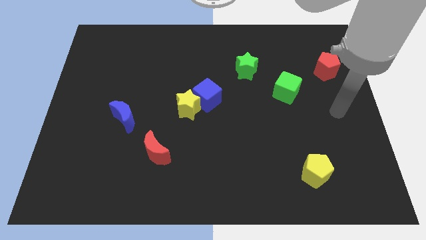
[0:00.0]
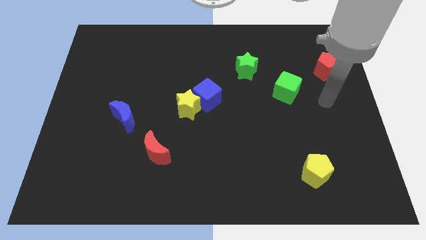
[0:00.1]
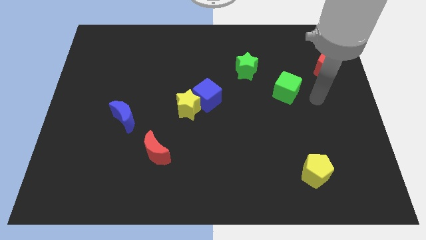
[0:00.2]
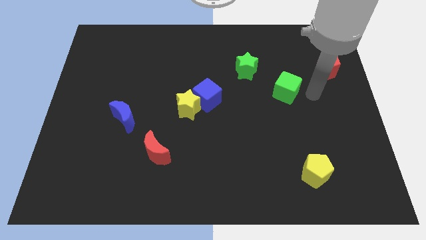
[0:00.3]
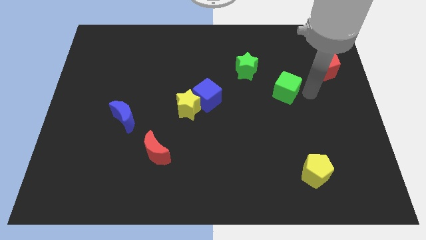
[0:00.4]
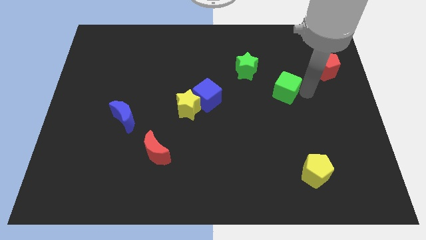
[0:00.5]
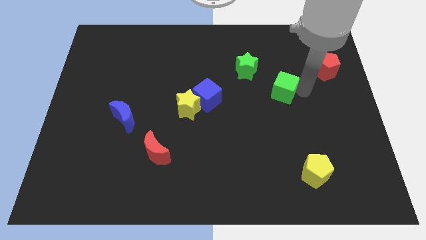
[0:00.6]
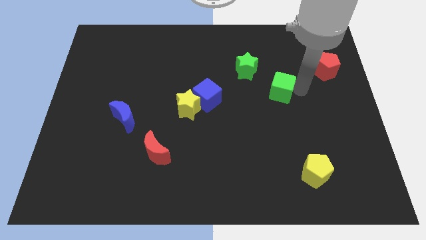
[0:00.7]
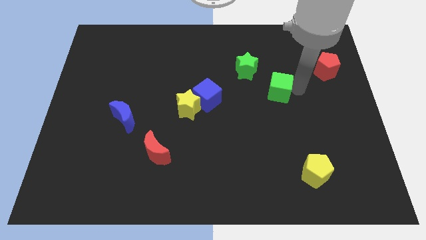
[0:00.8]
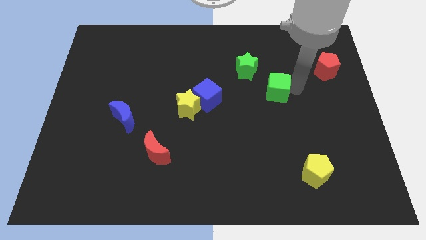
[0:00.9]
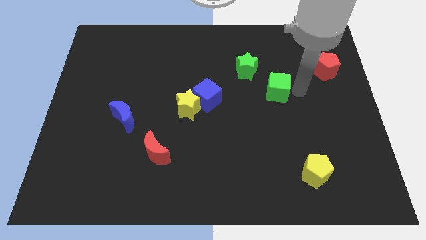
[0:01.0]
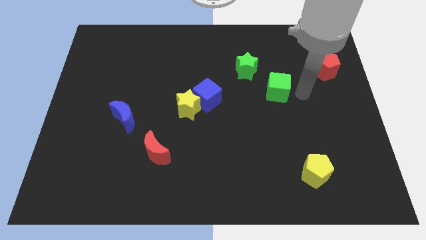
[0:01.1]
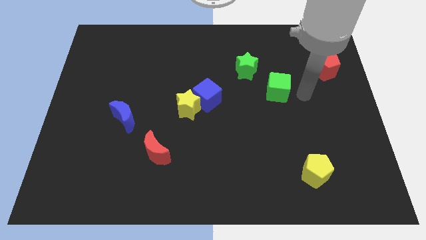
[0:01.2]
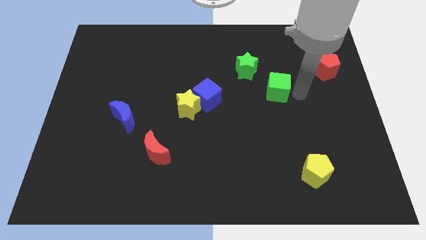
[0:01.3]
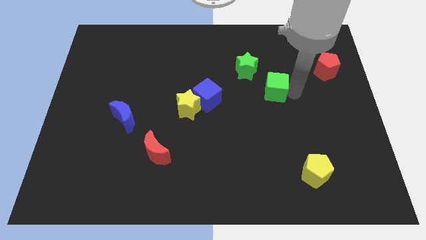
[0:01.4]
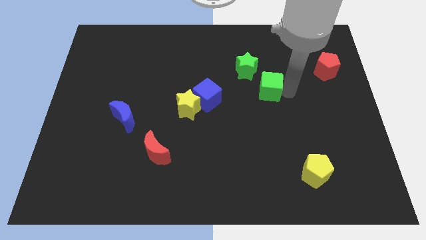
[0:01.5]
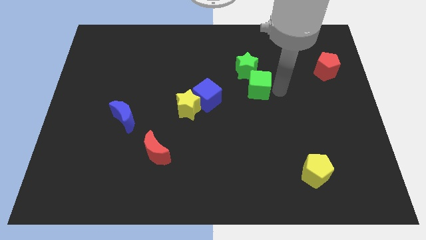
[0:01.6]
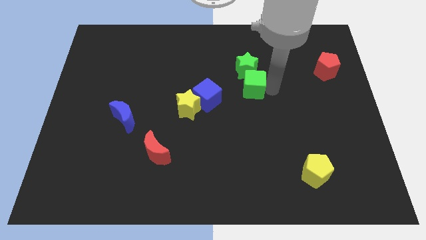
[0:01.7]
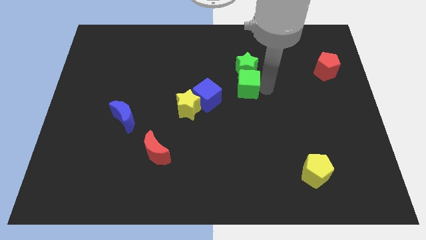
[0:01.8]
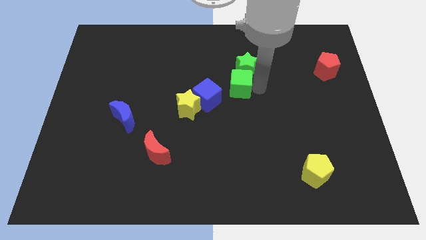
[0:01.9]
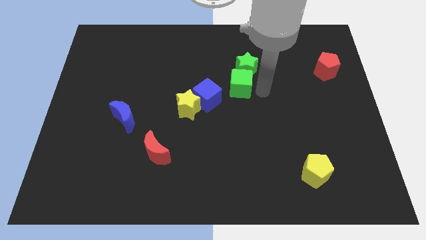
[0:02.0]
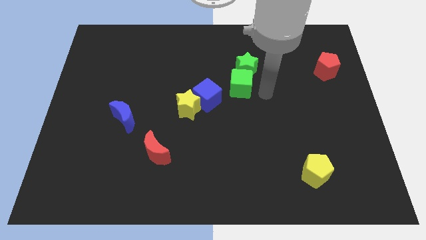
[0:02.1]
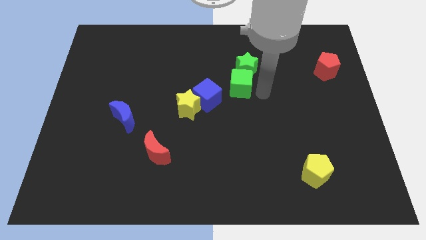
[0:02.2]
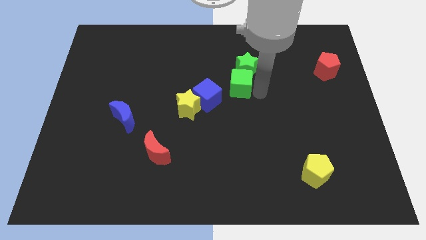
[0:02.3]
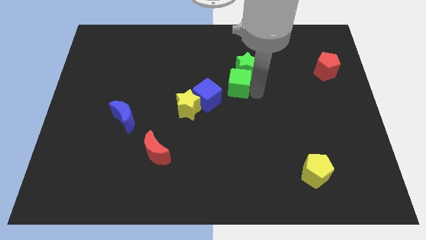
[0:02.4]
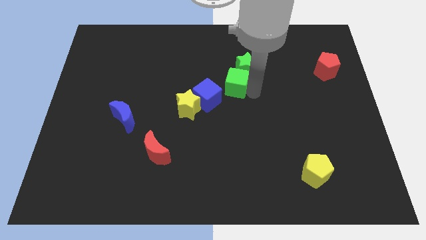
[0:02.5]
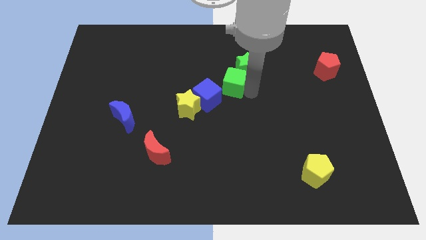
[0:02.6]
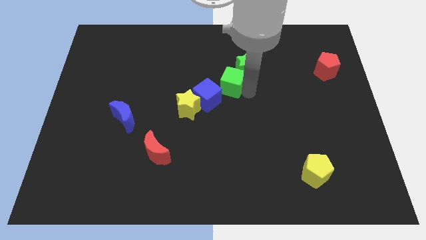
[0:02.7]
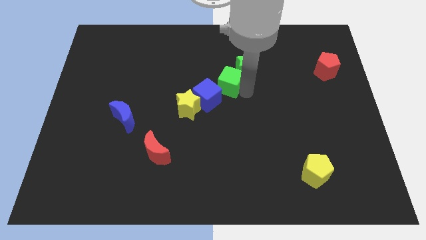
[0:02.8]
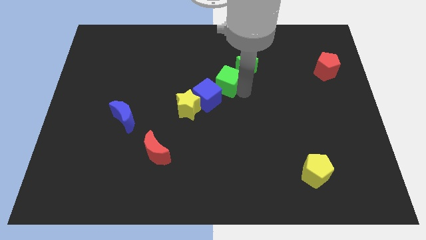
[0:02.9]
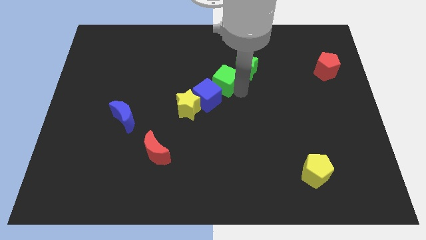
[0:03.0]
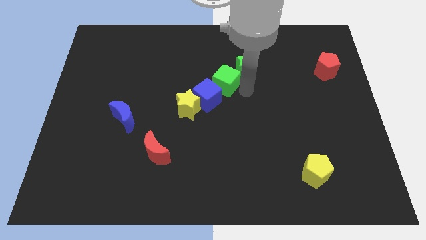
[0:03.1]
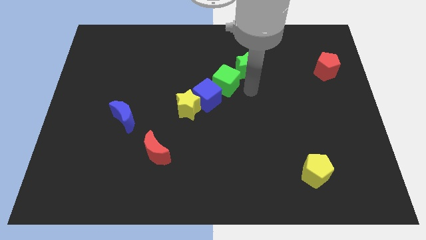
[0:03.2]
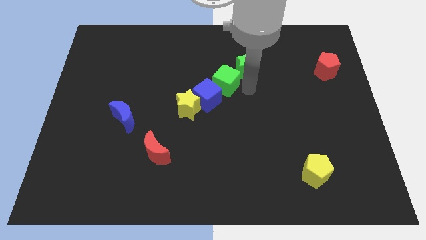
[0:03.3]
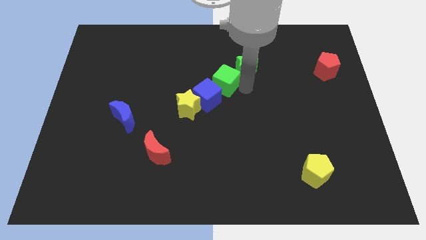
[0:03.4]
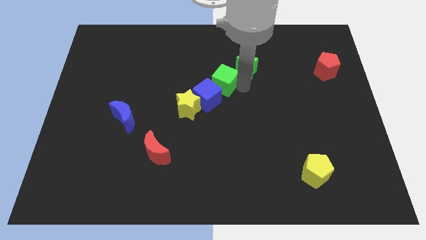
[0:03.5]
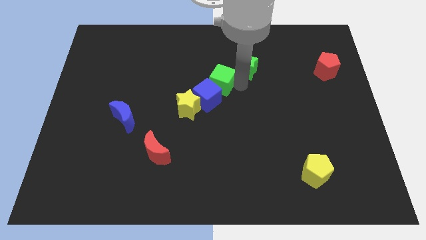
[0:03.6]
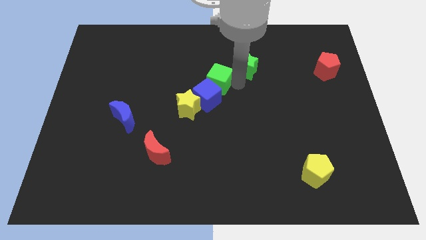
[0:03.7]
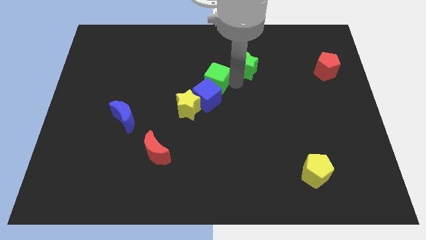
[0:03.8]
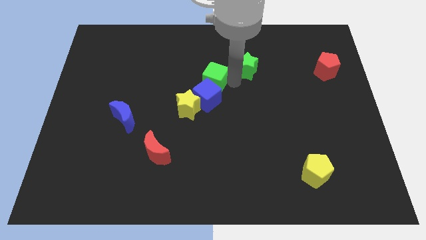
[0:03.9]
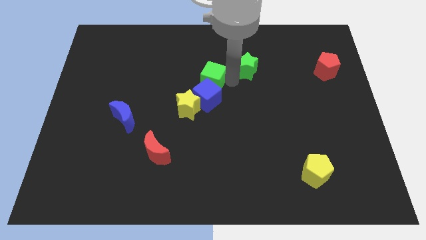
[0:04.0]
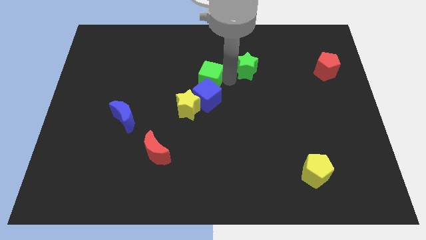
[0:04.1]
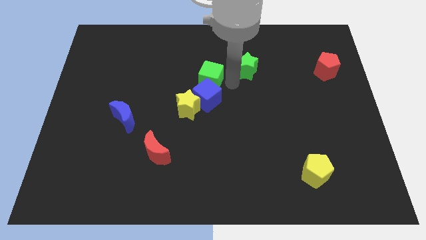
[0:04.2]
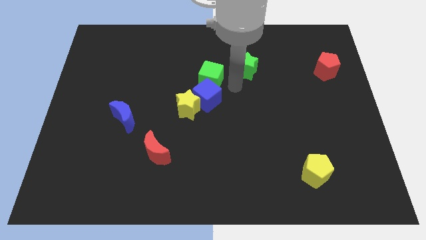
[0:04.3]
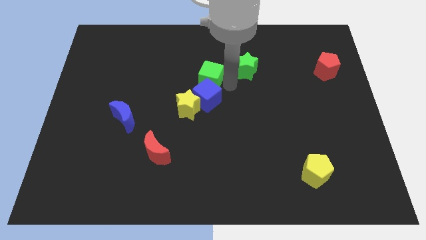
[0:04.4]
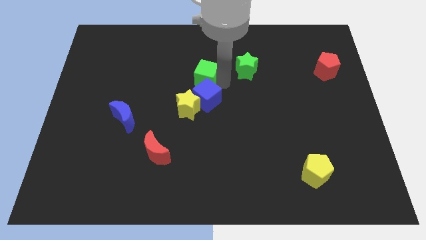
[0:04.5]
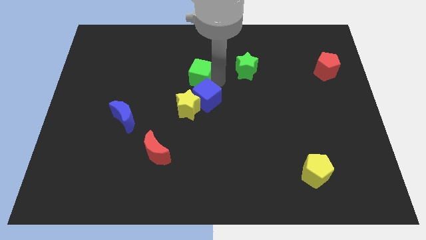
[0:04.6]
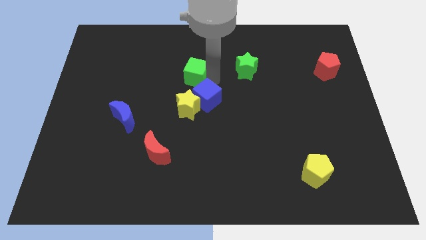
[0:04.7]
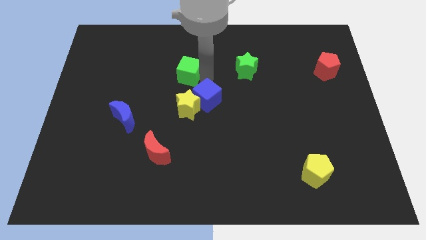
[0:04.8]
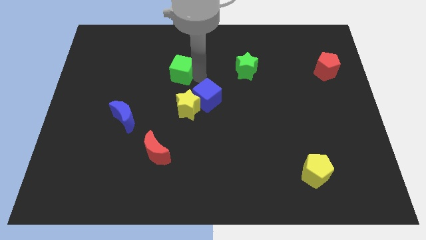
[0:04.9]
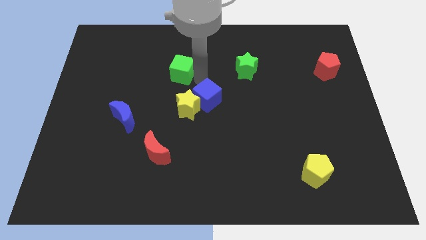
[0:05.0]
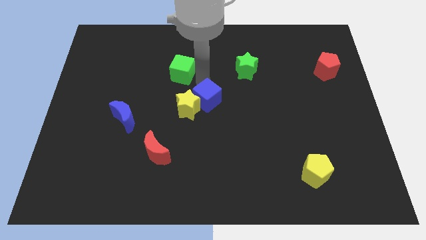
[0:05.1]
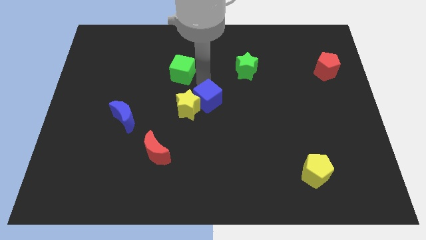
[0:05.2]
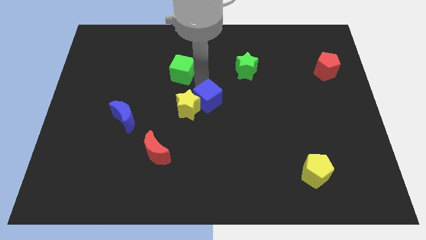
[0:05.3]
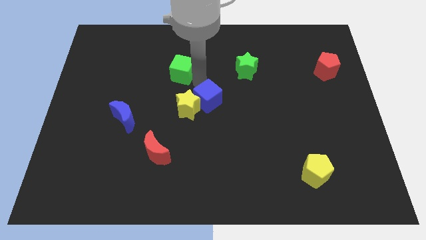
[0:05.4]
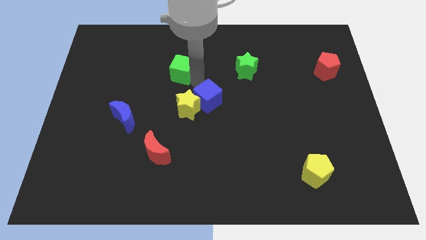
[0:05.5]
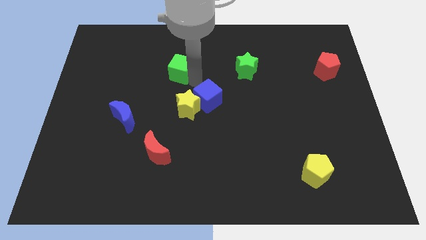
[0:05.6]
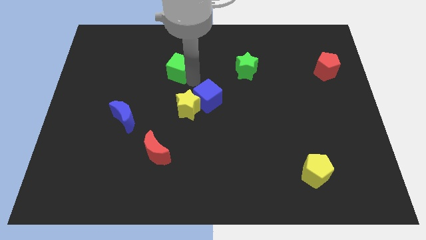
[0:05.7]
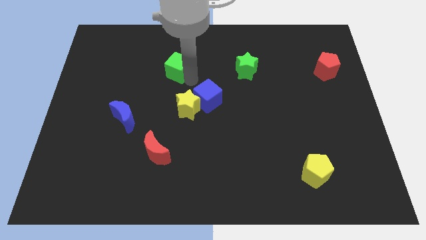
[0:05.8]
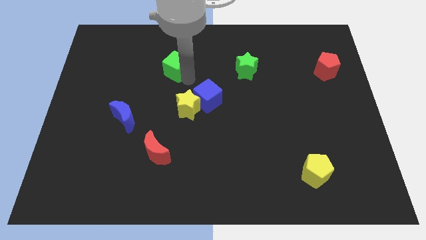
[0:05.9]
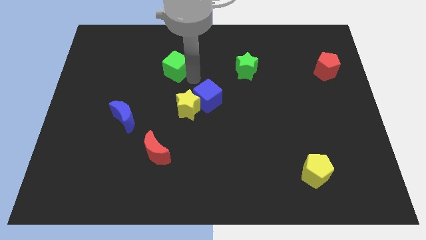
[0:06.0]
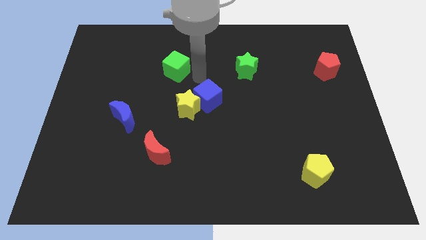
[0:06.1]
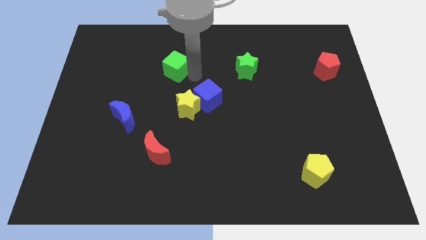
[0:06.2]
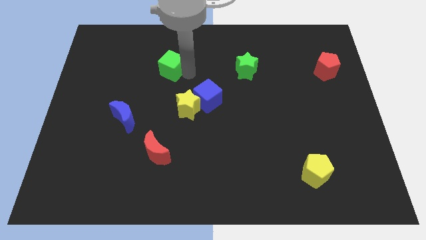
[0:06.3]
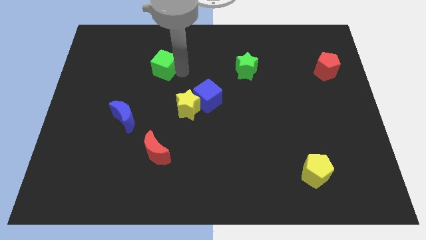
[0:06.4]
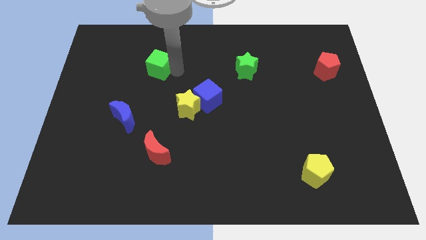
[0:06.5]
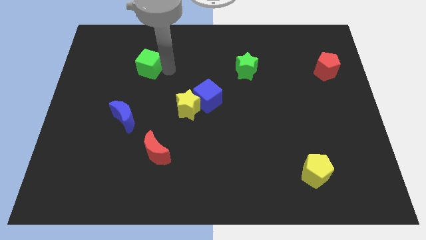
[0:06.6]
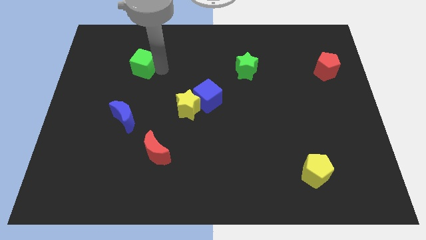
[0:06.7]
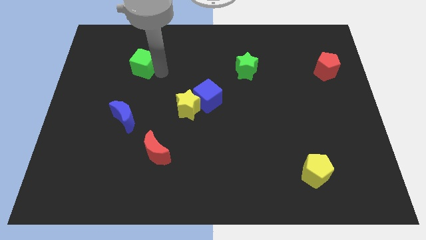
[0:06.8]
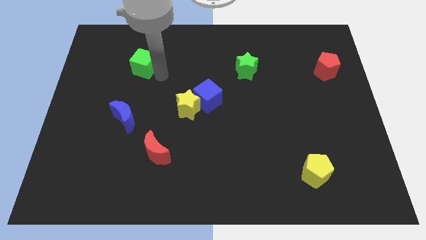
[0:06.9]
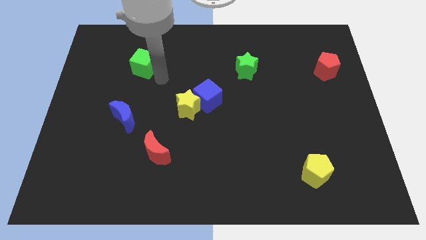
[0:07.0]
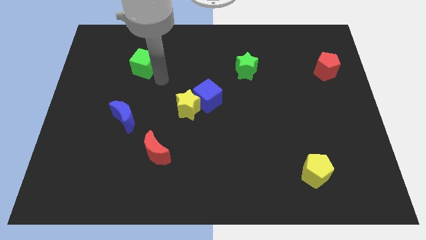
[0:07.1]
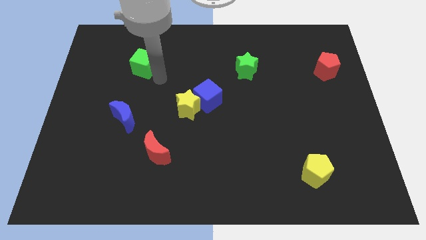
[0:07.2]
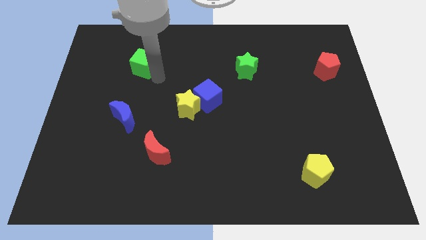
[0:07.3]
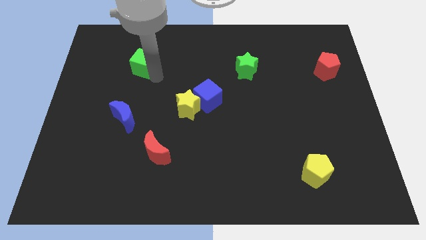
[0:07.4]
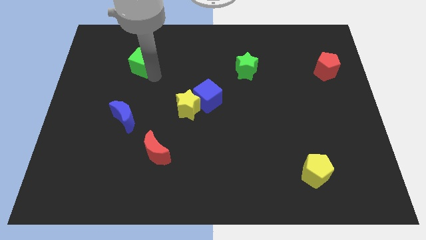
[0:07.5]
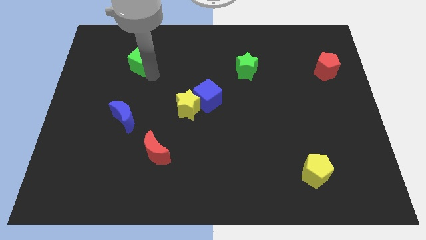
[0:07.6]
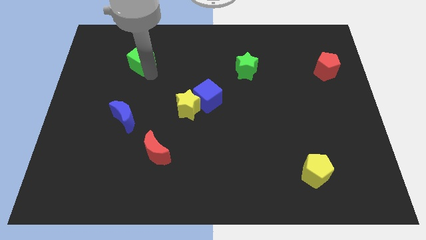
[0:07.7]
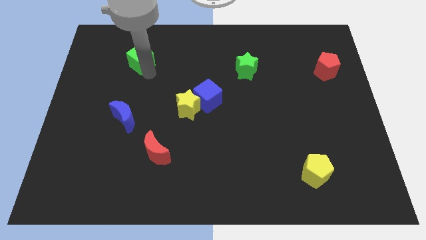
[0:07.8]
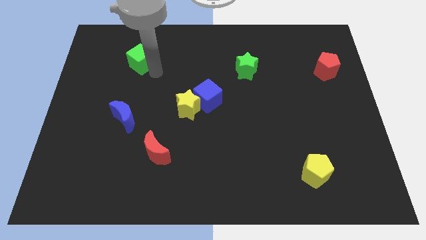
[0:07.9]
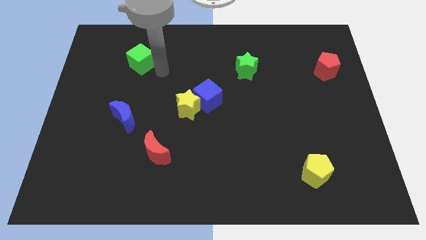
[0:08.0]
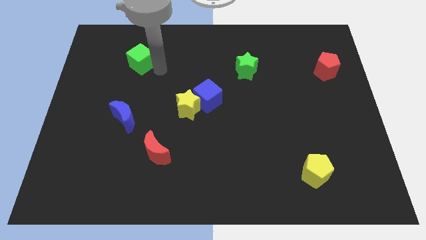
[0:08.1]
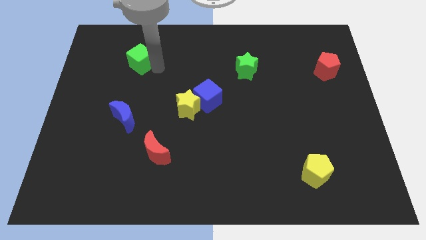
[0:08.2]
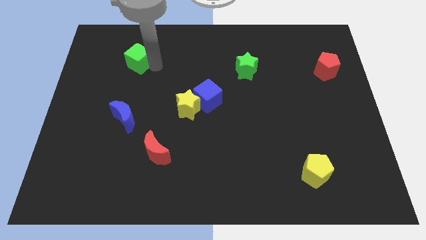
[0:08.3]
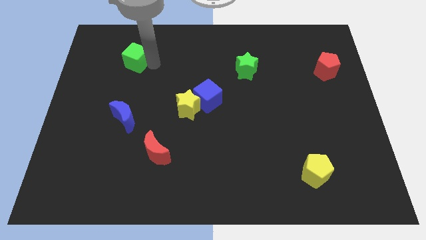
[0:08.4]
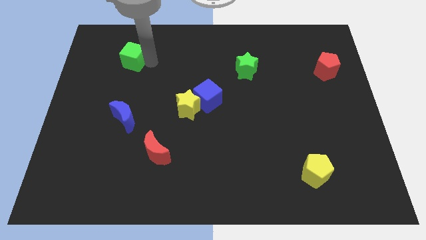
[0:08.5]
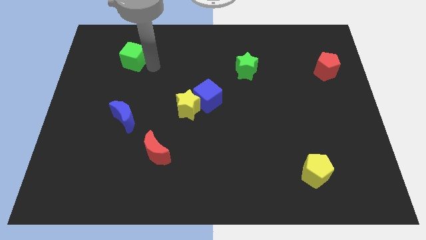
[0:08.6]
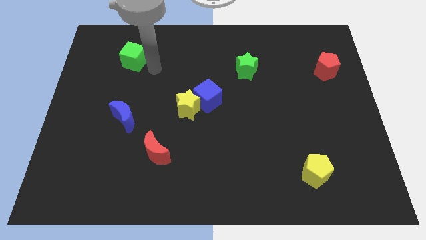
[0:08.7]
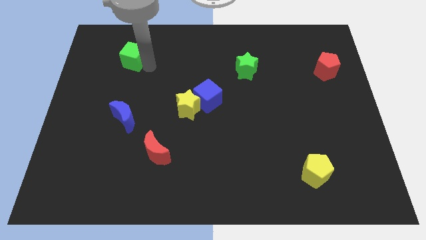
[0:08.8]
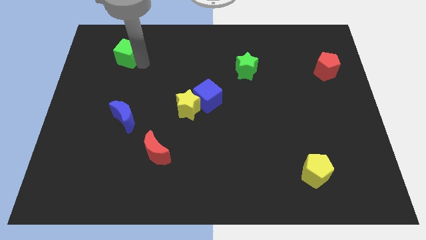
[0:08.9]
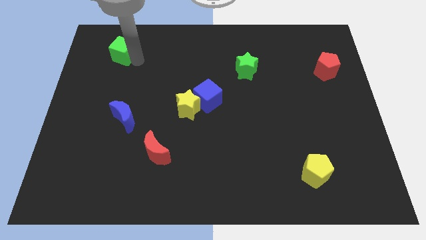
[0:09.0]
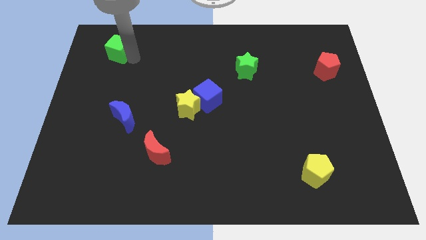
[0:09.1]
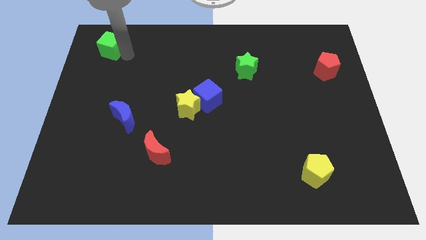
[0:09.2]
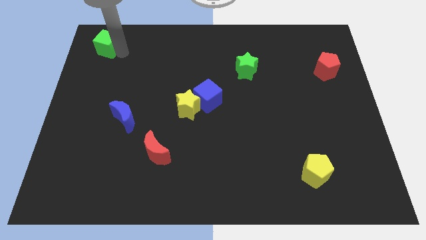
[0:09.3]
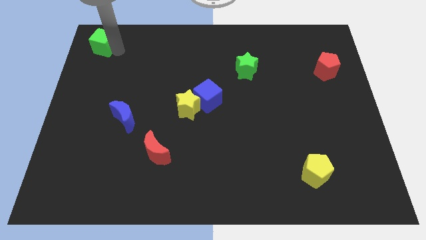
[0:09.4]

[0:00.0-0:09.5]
slide the green cube to the top left
